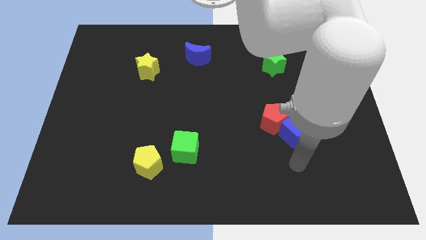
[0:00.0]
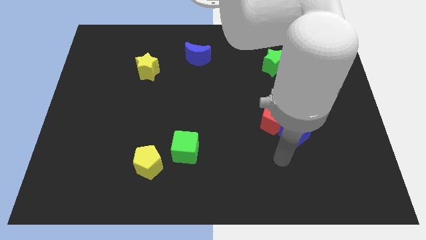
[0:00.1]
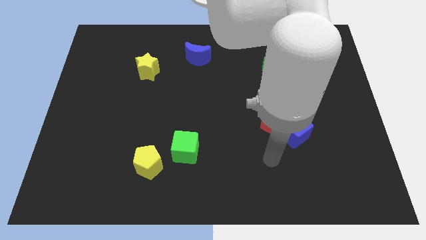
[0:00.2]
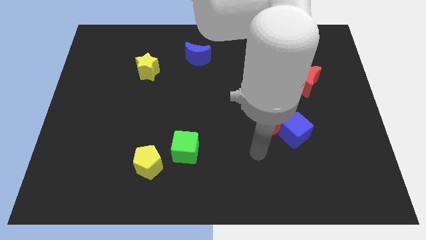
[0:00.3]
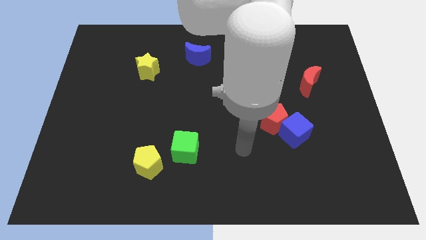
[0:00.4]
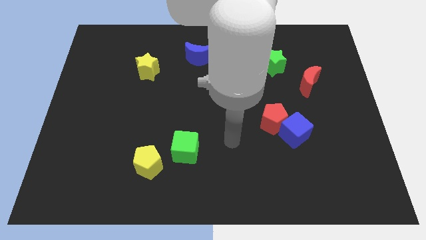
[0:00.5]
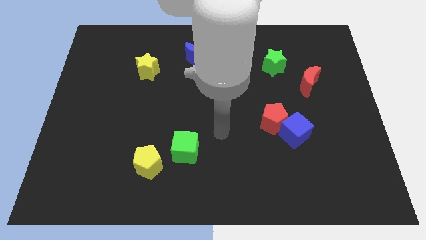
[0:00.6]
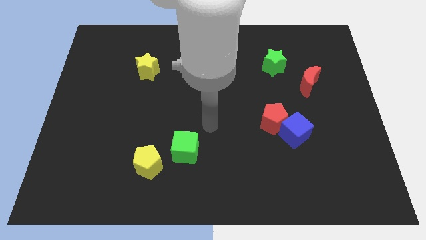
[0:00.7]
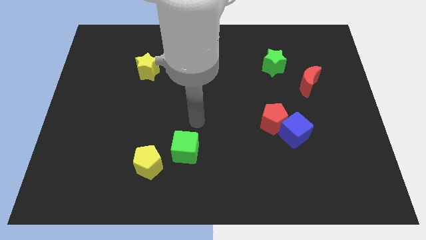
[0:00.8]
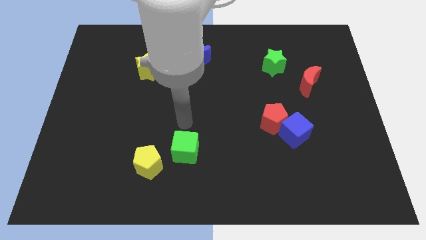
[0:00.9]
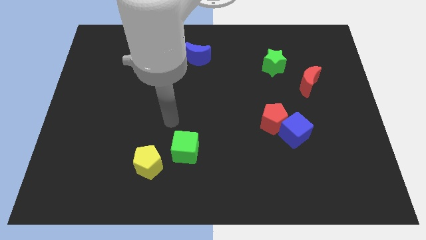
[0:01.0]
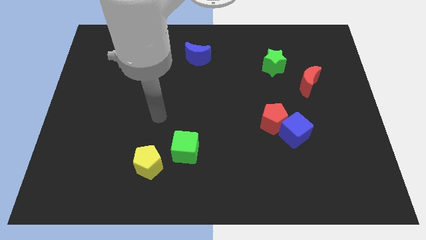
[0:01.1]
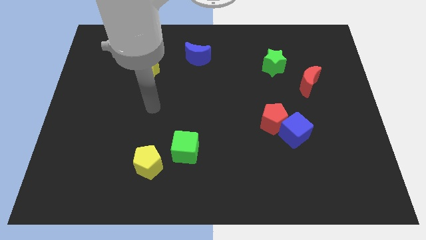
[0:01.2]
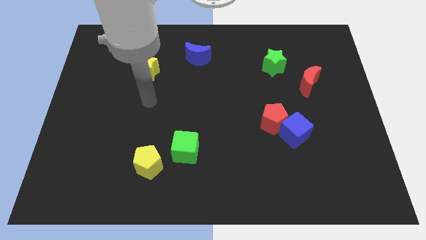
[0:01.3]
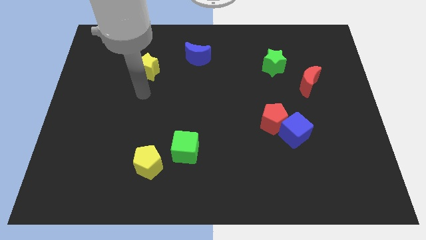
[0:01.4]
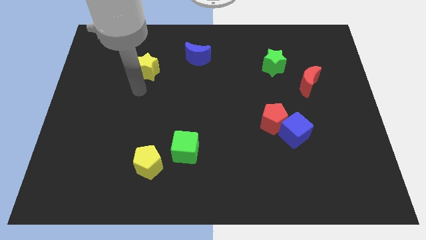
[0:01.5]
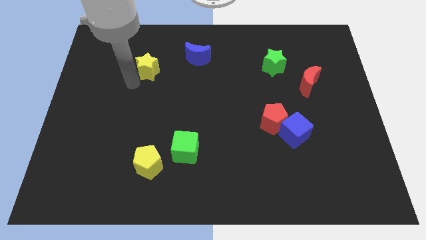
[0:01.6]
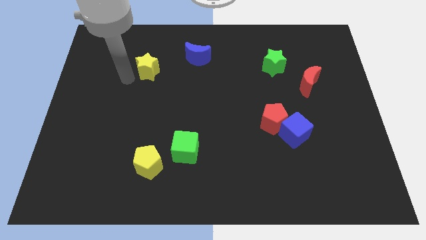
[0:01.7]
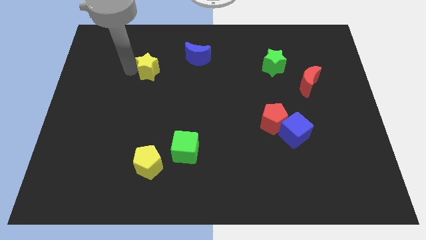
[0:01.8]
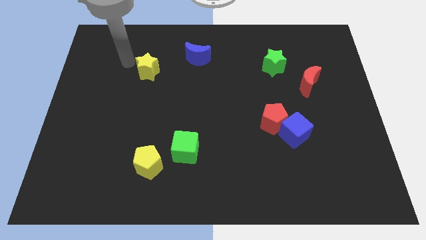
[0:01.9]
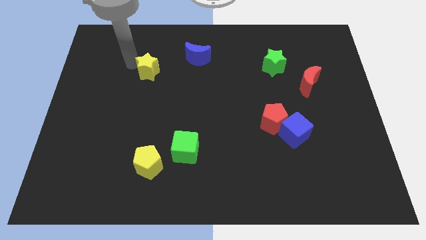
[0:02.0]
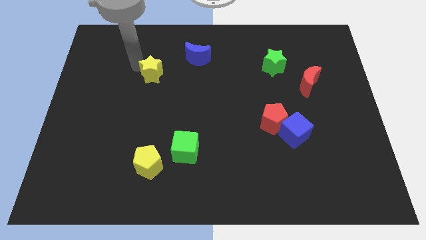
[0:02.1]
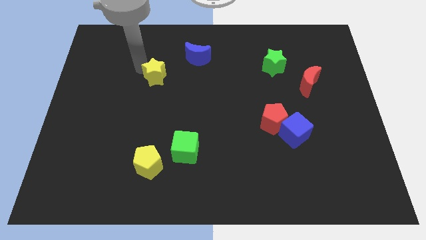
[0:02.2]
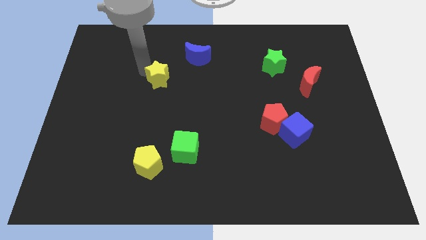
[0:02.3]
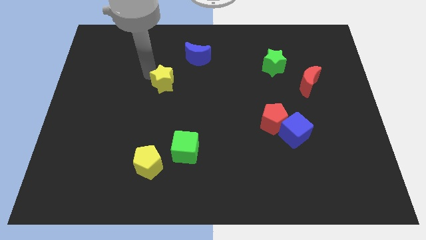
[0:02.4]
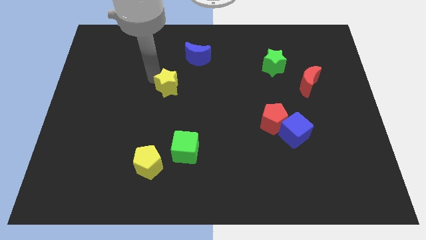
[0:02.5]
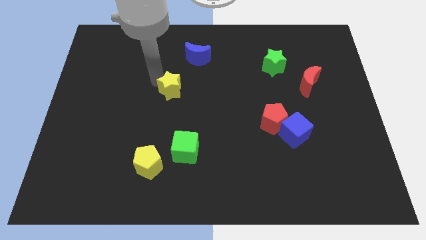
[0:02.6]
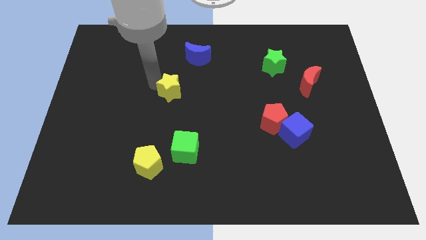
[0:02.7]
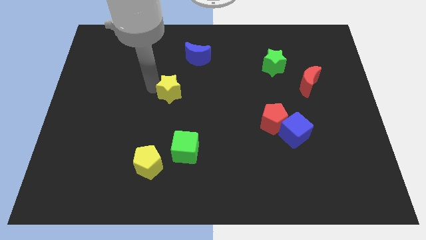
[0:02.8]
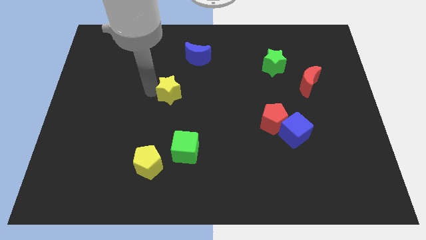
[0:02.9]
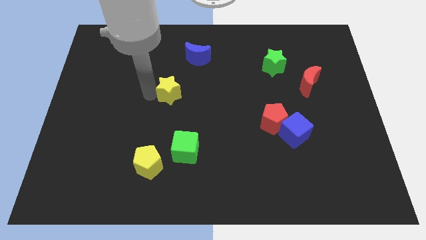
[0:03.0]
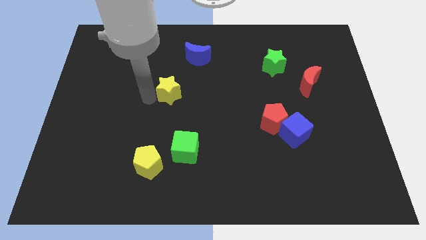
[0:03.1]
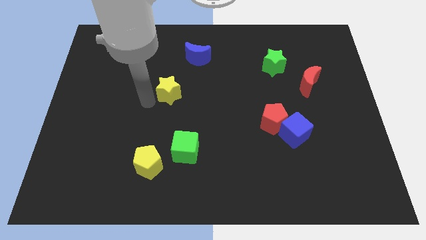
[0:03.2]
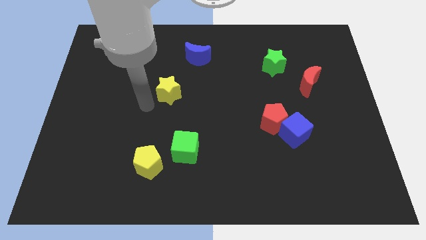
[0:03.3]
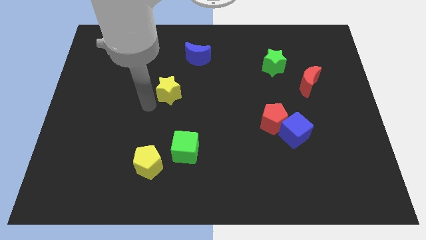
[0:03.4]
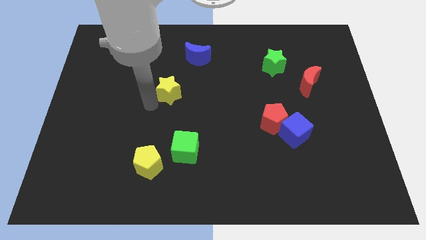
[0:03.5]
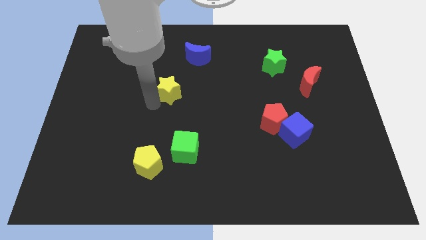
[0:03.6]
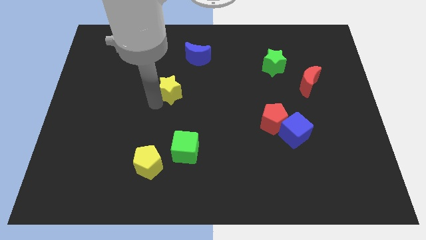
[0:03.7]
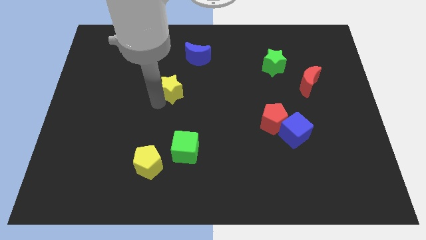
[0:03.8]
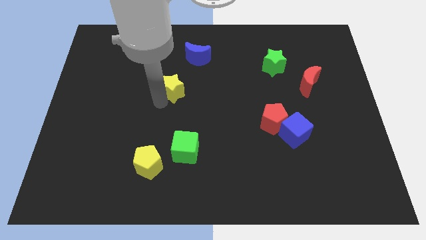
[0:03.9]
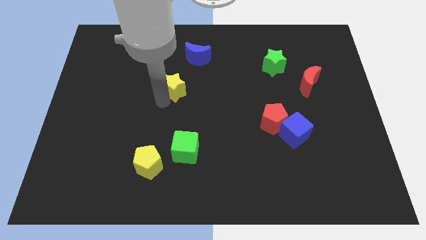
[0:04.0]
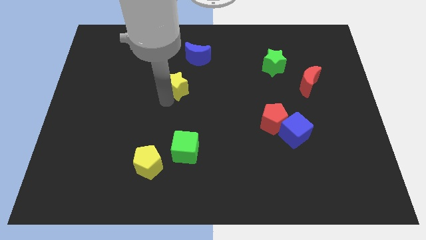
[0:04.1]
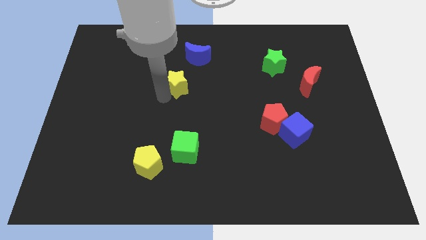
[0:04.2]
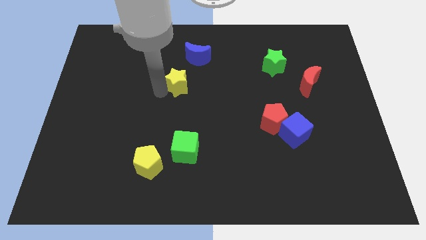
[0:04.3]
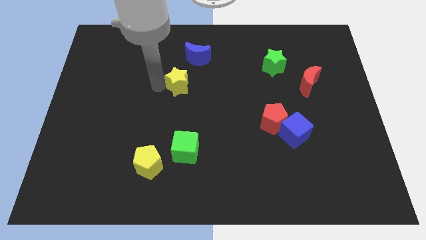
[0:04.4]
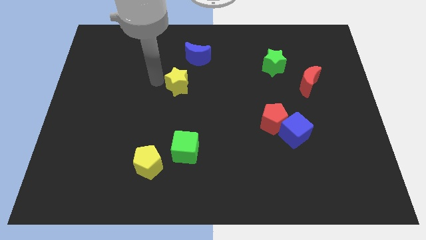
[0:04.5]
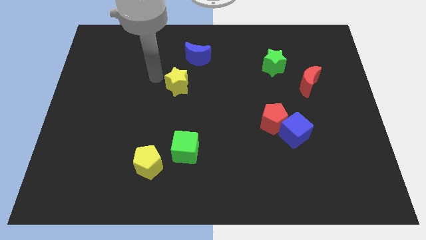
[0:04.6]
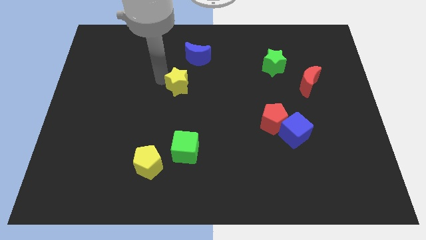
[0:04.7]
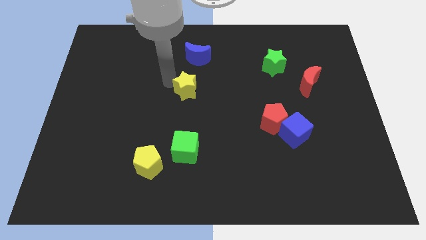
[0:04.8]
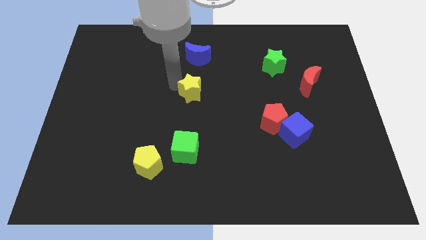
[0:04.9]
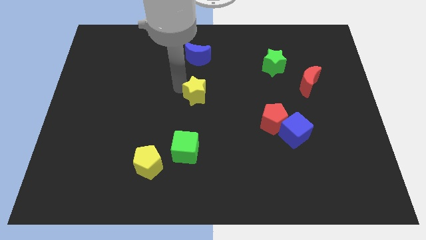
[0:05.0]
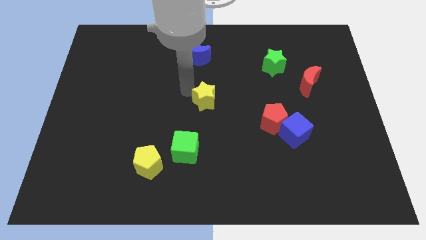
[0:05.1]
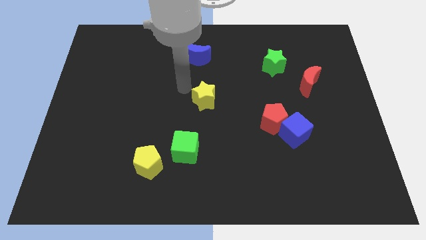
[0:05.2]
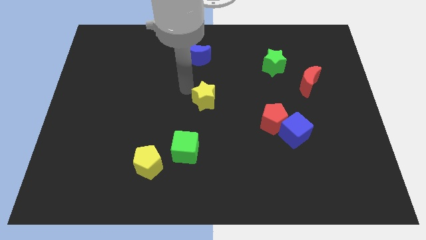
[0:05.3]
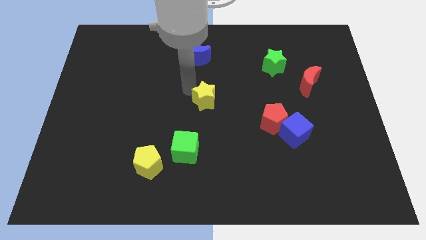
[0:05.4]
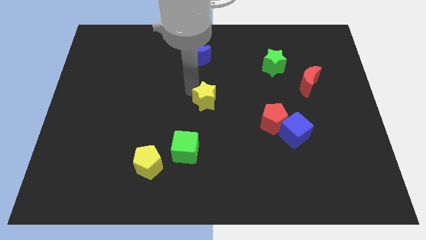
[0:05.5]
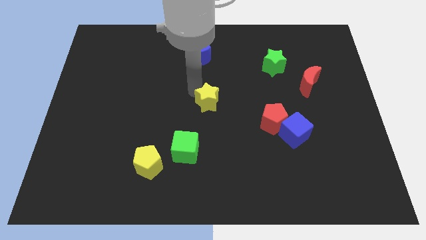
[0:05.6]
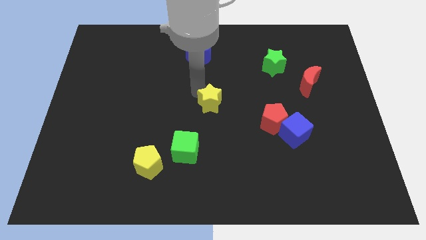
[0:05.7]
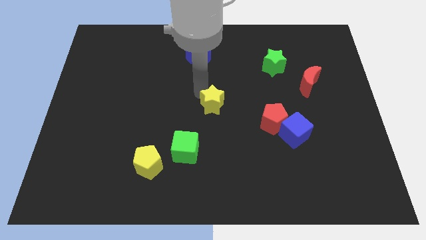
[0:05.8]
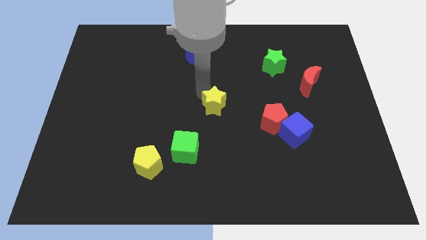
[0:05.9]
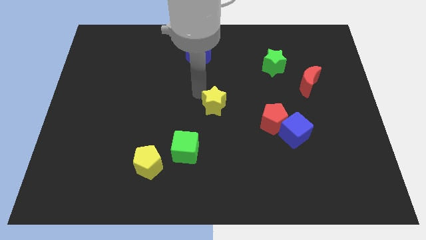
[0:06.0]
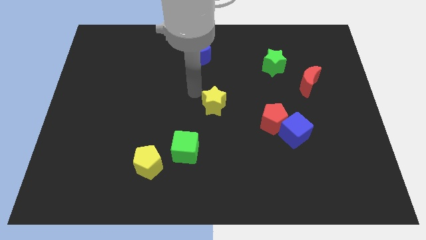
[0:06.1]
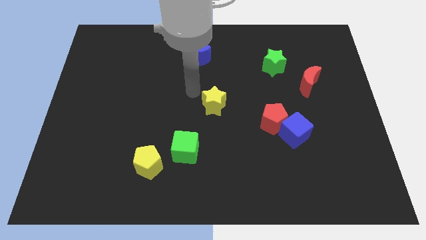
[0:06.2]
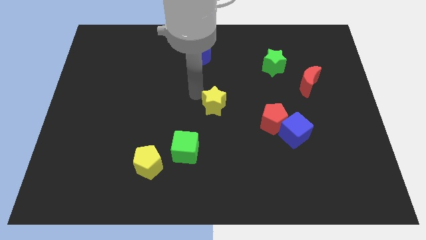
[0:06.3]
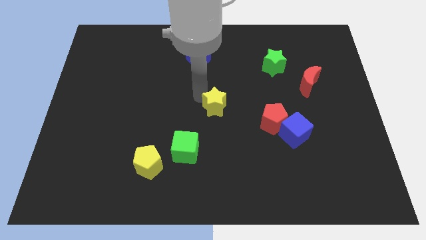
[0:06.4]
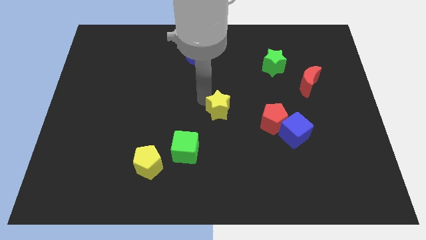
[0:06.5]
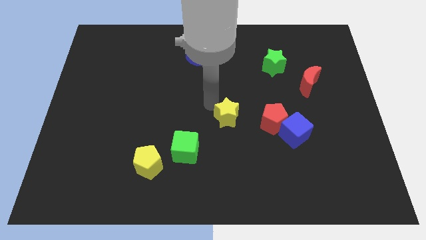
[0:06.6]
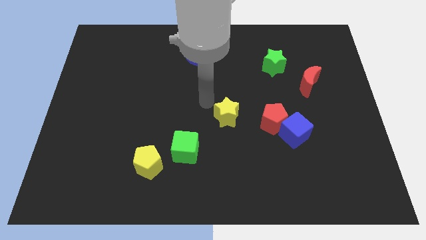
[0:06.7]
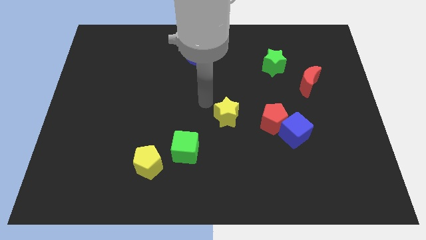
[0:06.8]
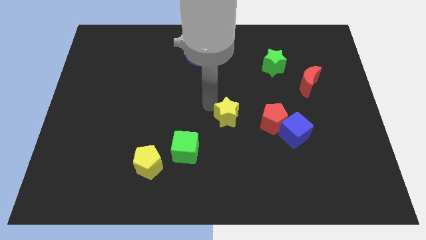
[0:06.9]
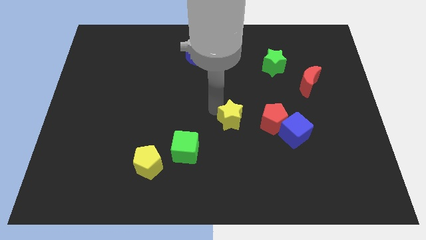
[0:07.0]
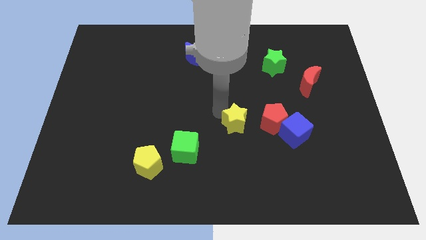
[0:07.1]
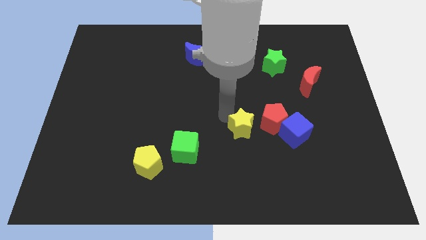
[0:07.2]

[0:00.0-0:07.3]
put the yellow star to the bottom left side of the red pentagon
